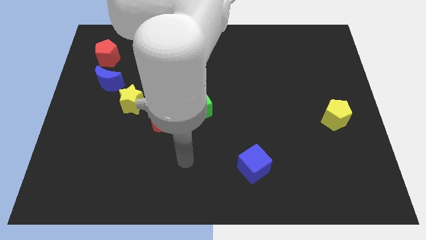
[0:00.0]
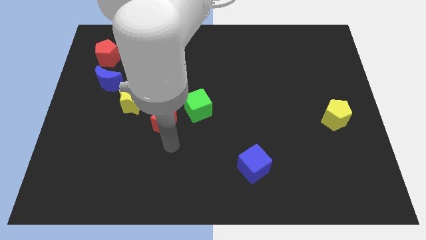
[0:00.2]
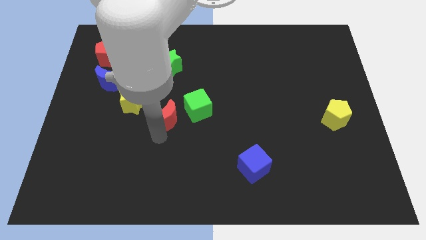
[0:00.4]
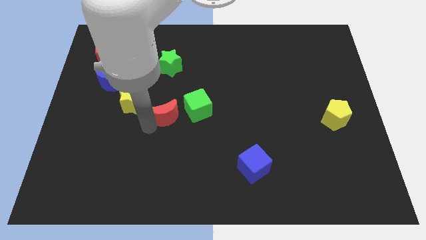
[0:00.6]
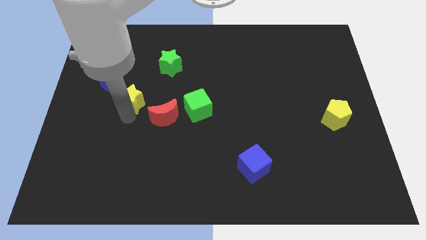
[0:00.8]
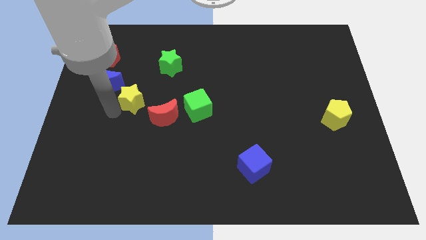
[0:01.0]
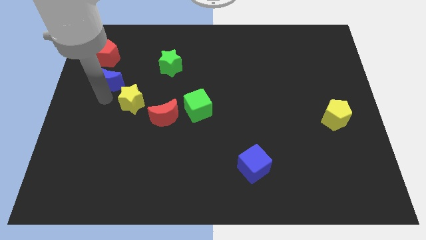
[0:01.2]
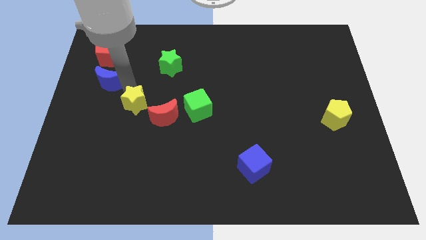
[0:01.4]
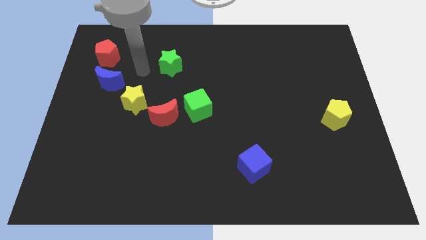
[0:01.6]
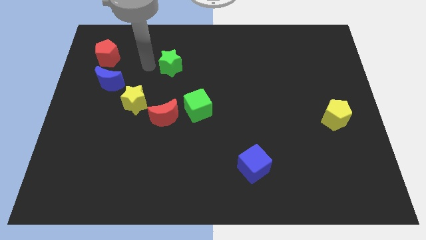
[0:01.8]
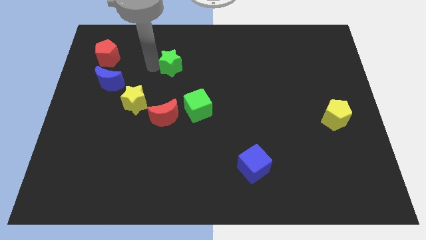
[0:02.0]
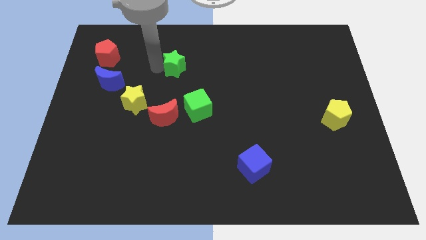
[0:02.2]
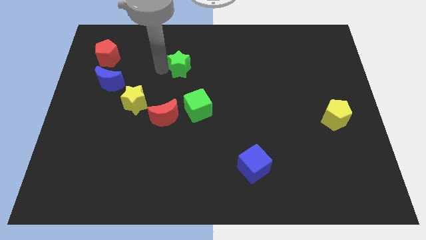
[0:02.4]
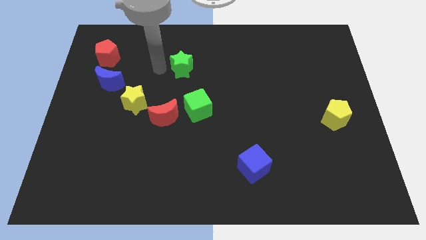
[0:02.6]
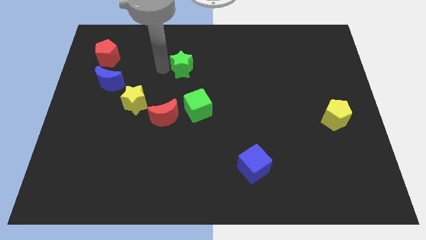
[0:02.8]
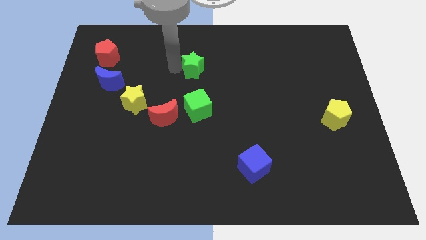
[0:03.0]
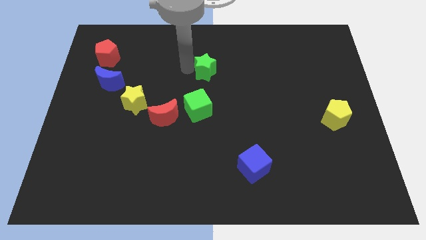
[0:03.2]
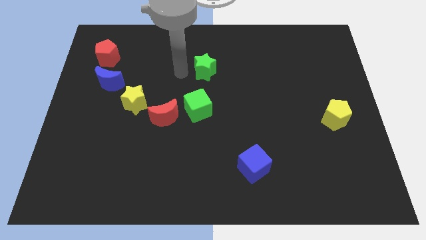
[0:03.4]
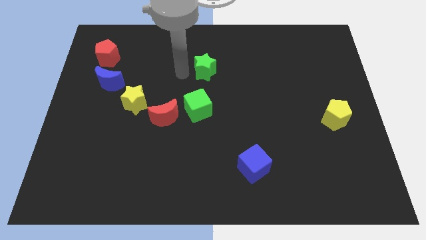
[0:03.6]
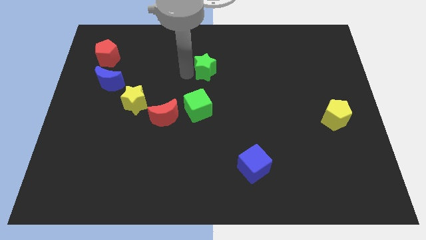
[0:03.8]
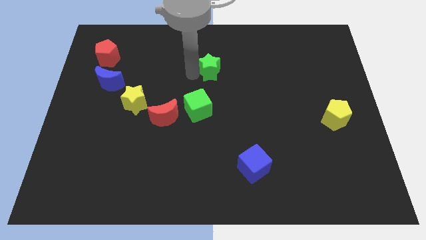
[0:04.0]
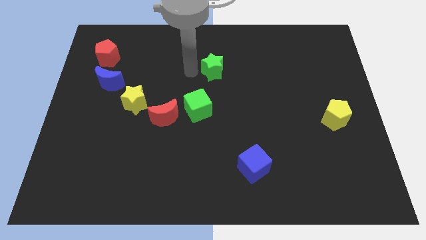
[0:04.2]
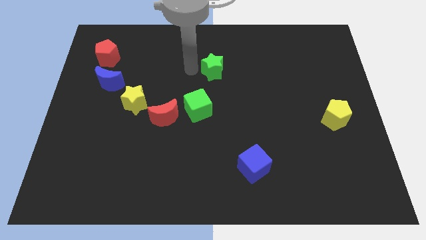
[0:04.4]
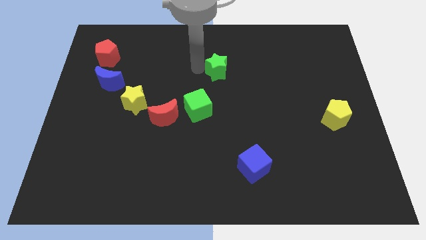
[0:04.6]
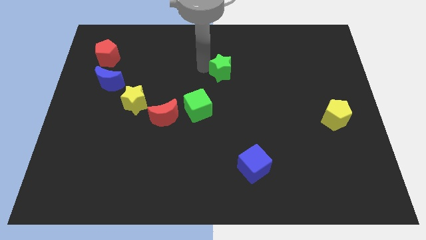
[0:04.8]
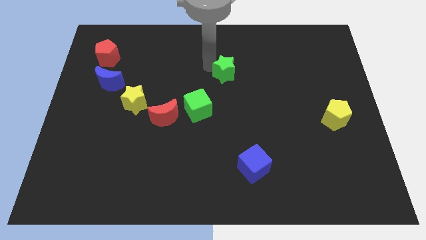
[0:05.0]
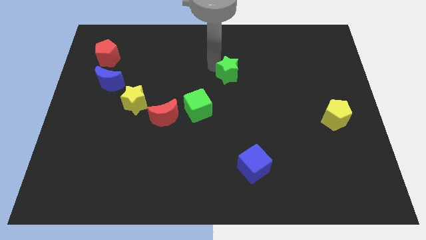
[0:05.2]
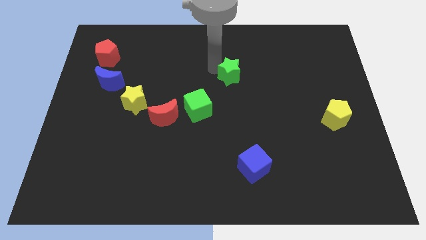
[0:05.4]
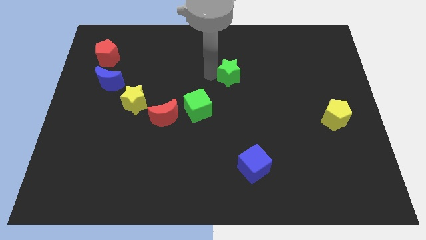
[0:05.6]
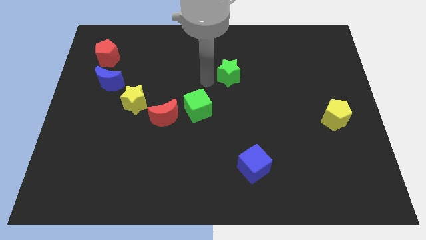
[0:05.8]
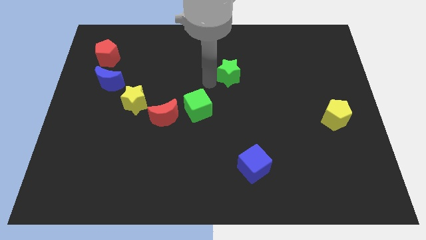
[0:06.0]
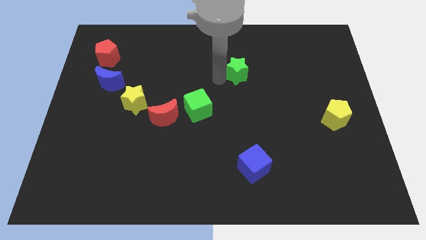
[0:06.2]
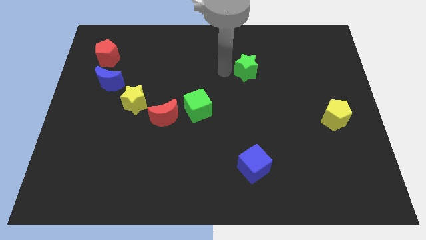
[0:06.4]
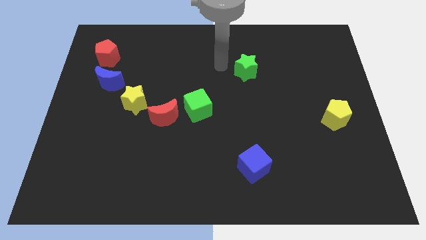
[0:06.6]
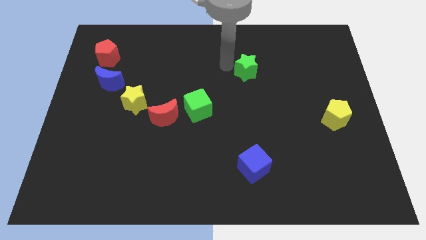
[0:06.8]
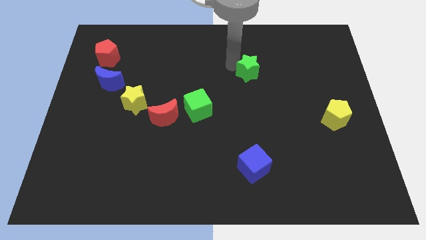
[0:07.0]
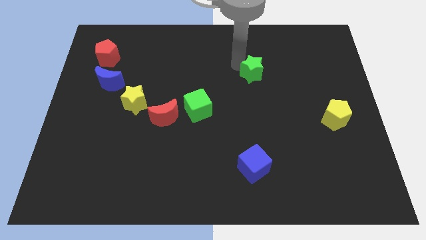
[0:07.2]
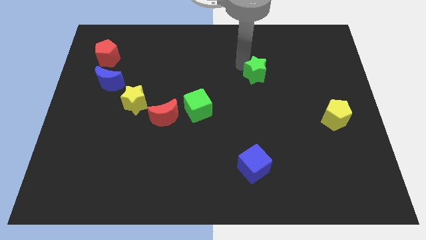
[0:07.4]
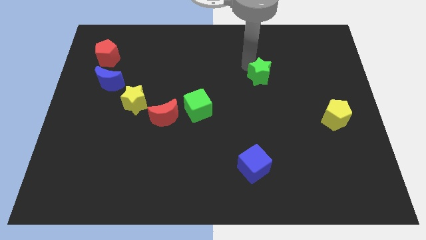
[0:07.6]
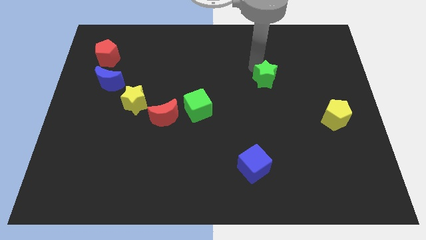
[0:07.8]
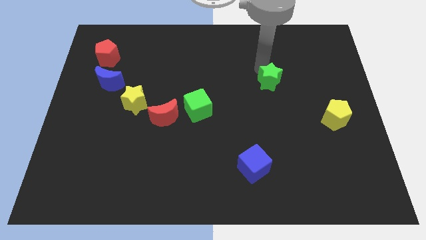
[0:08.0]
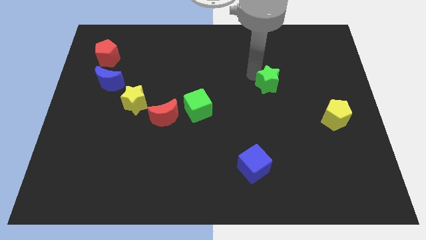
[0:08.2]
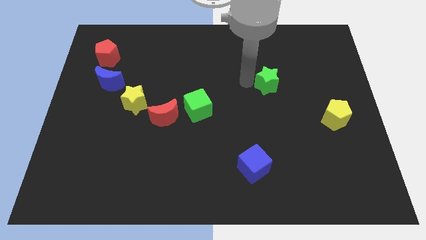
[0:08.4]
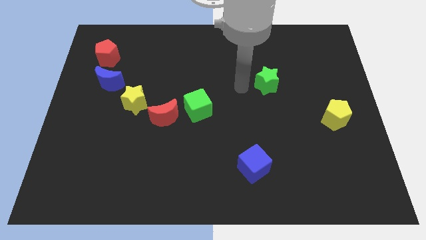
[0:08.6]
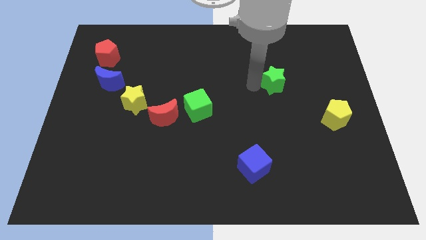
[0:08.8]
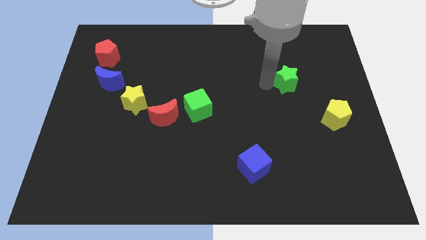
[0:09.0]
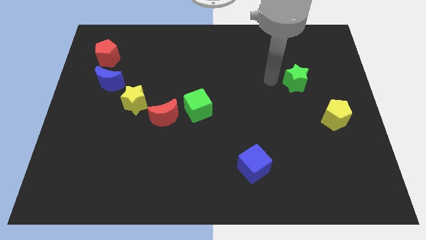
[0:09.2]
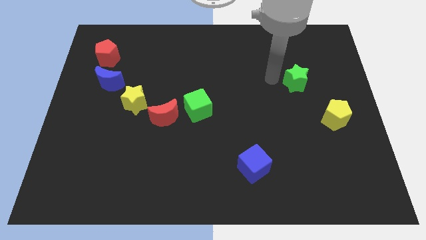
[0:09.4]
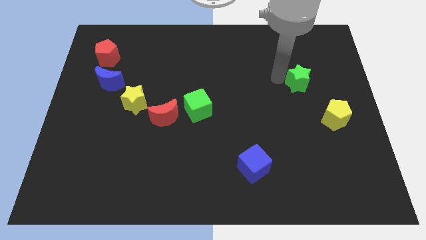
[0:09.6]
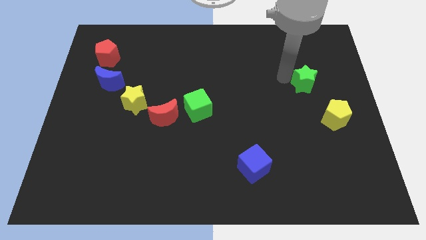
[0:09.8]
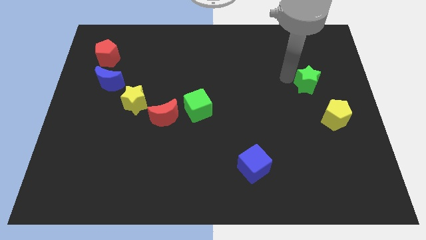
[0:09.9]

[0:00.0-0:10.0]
move the green star to the top side of the yellow pentagon

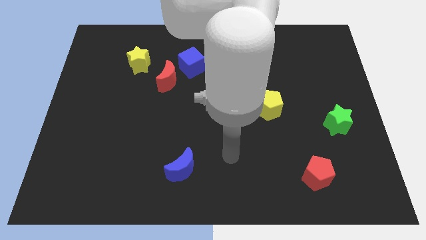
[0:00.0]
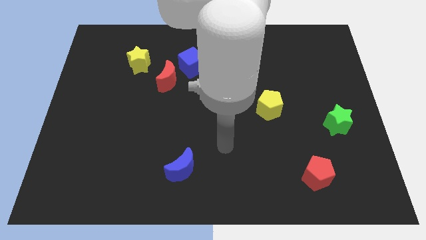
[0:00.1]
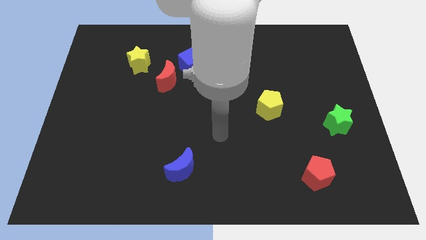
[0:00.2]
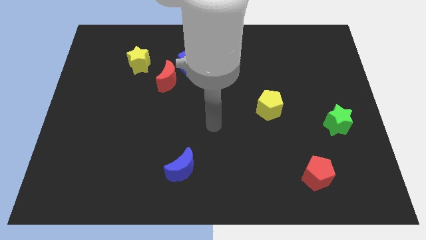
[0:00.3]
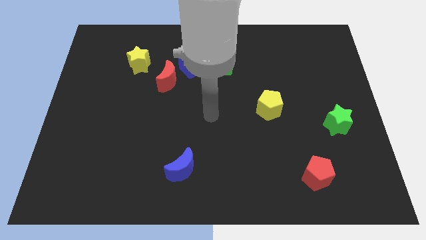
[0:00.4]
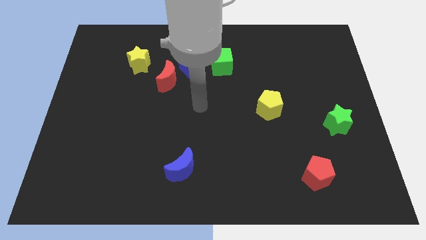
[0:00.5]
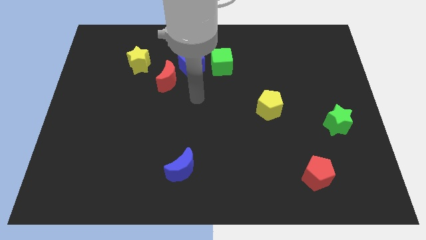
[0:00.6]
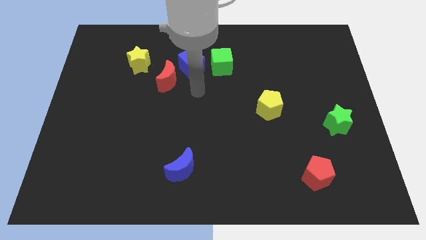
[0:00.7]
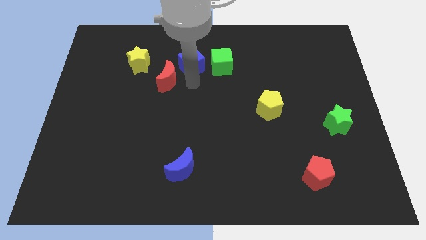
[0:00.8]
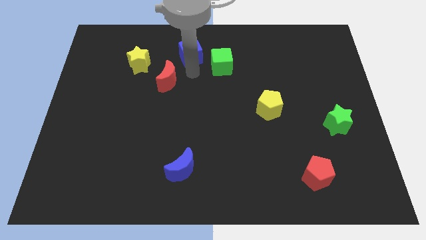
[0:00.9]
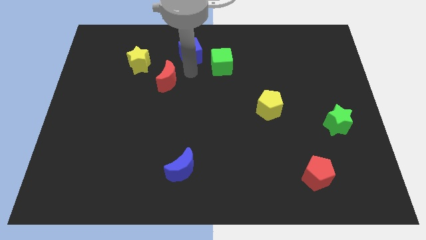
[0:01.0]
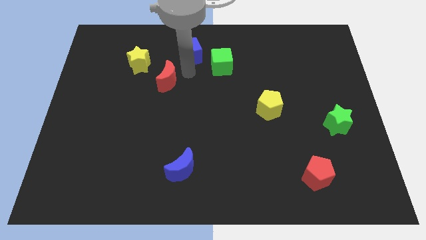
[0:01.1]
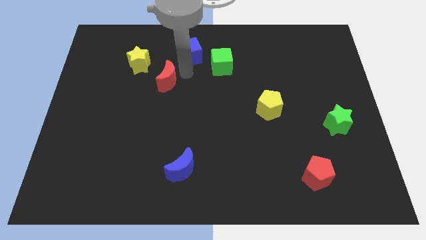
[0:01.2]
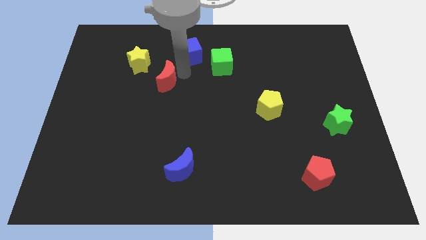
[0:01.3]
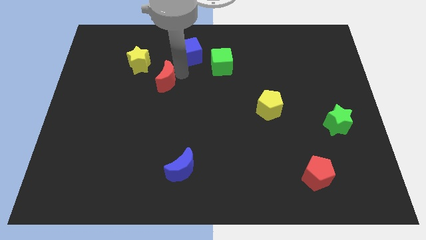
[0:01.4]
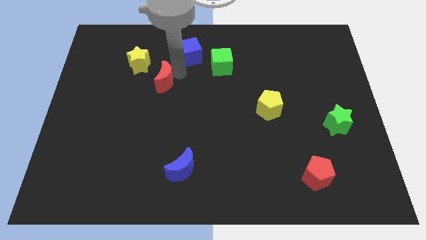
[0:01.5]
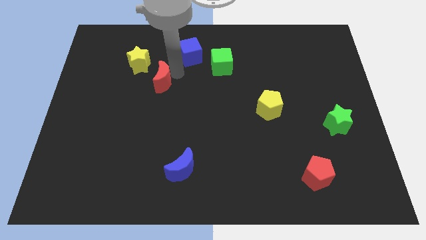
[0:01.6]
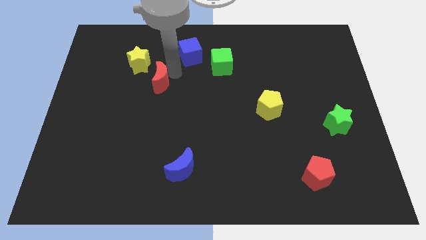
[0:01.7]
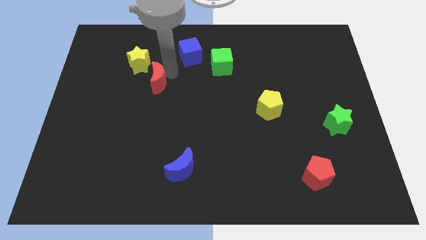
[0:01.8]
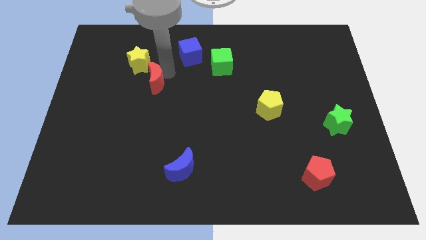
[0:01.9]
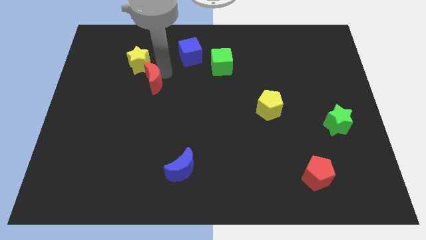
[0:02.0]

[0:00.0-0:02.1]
move the red moon below the yellow star
